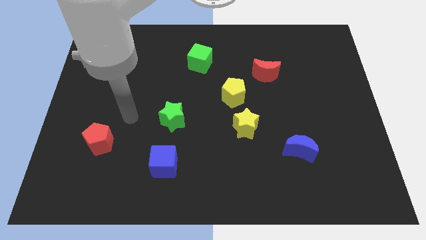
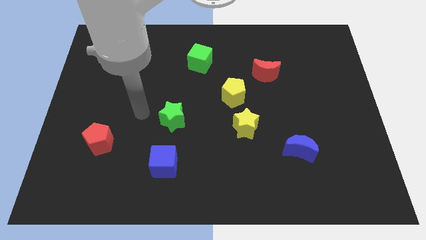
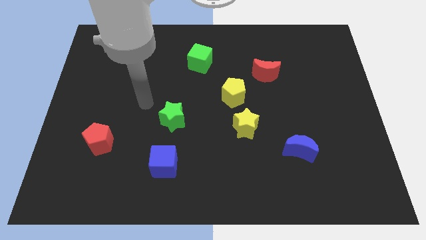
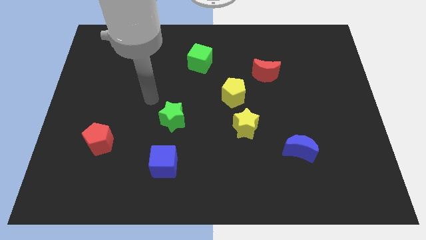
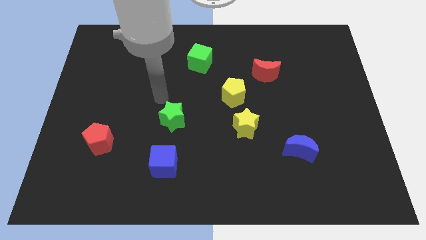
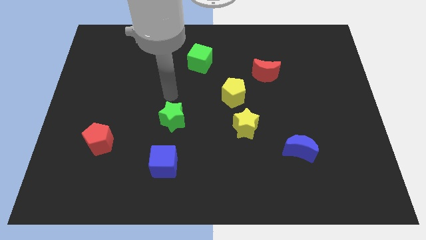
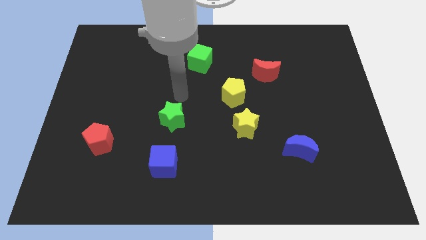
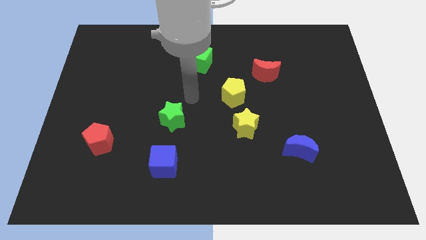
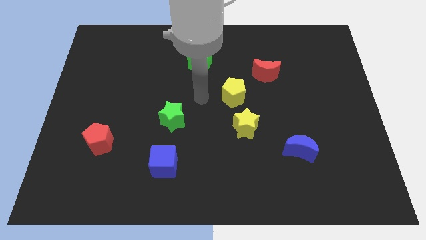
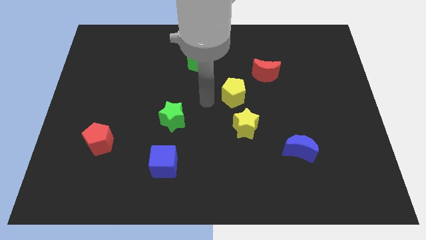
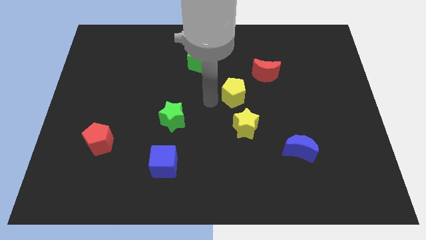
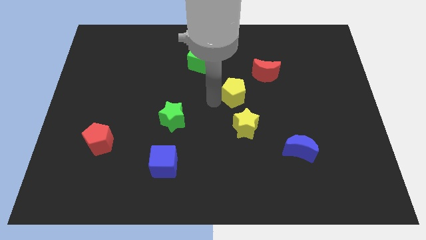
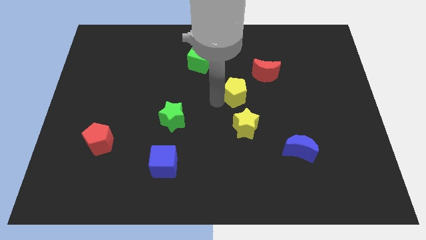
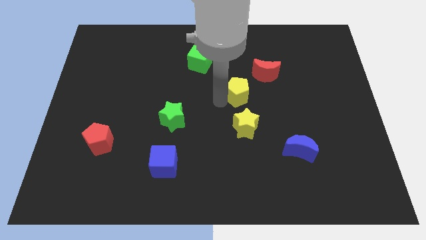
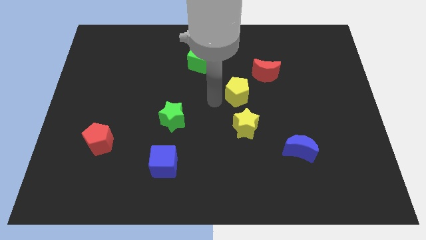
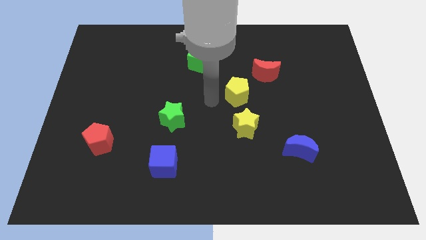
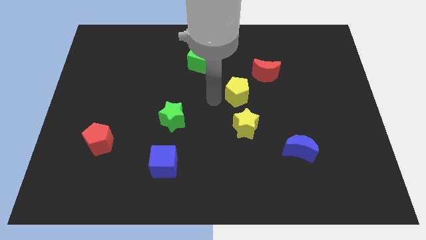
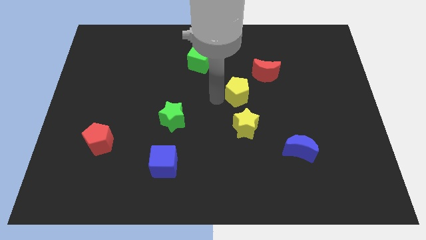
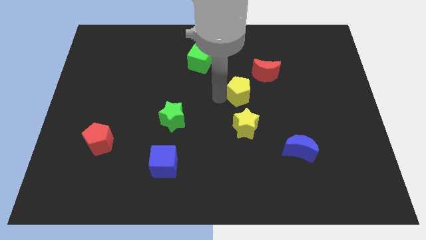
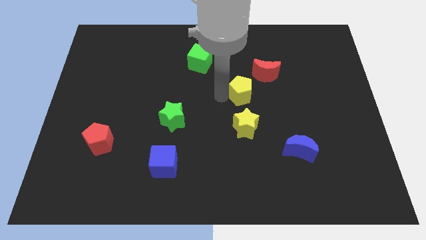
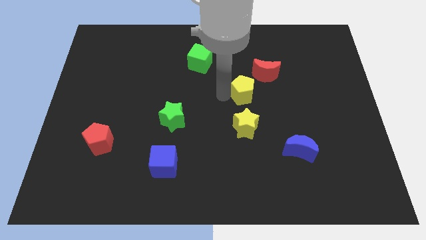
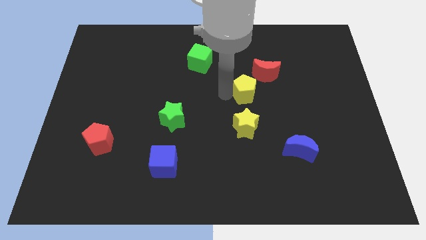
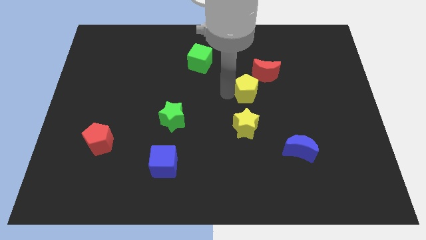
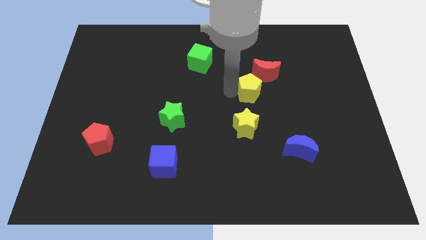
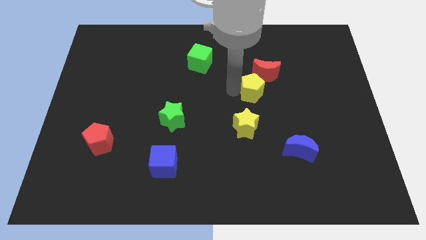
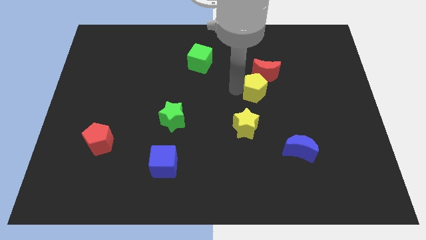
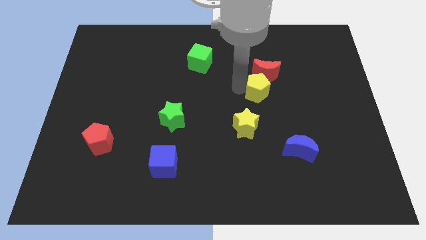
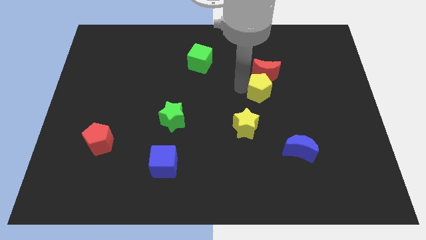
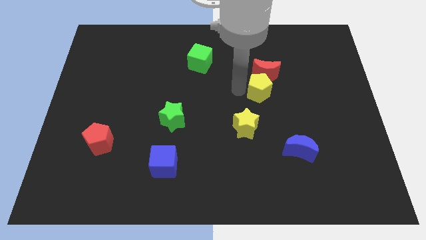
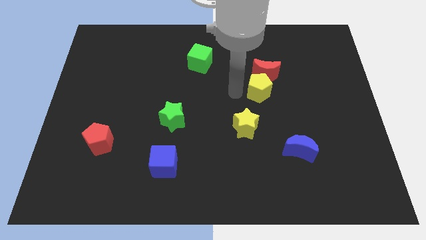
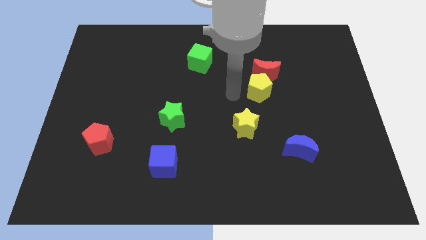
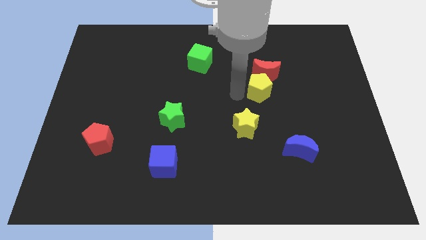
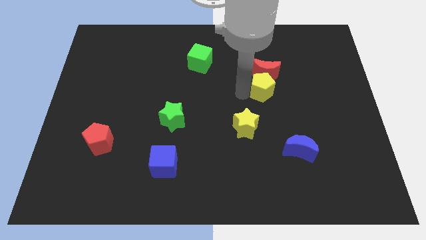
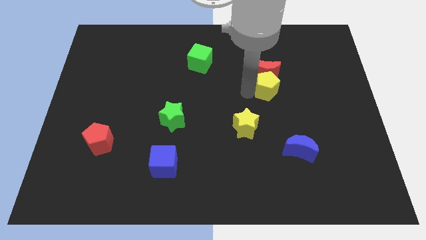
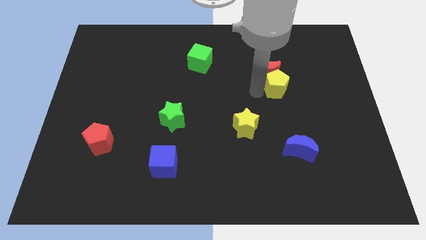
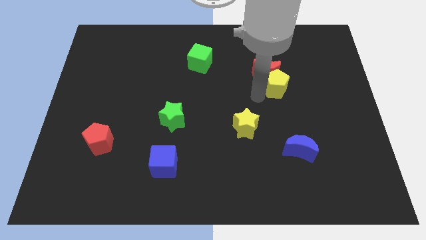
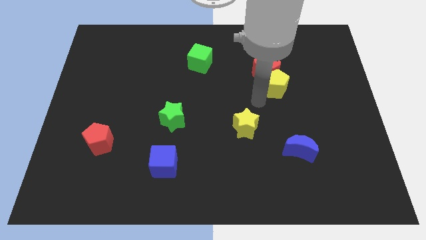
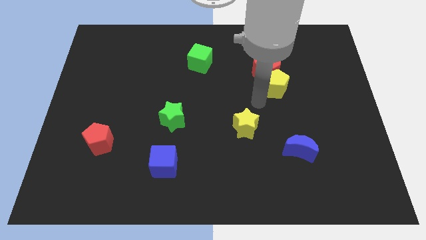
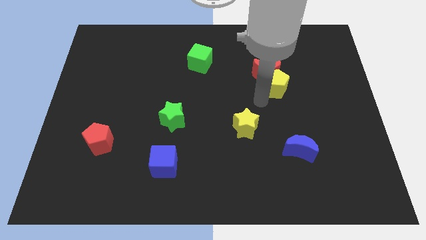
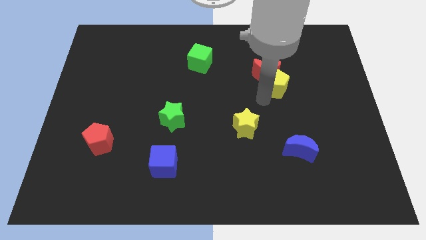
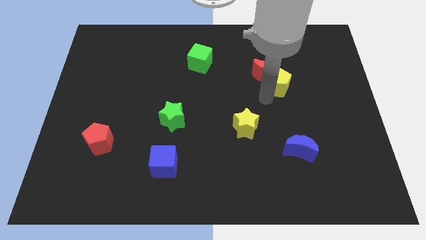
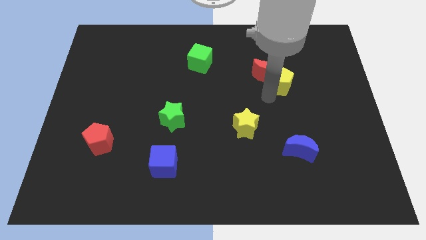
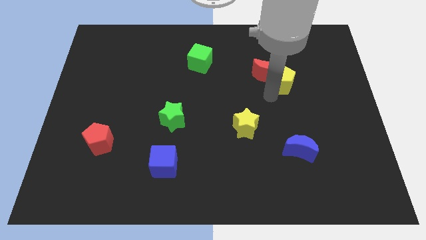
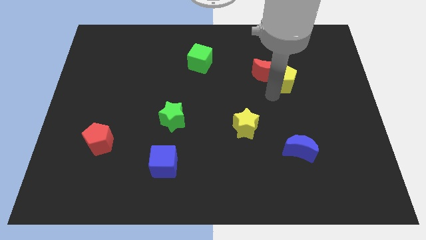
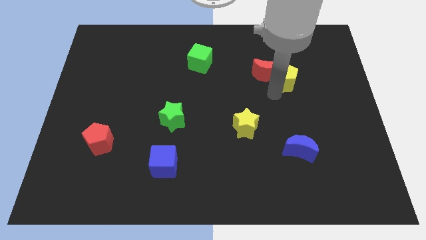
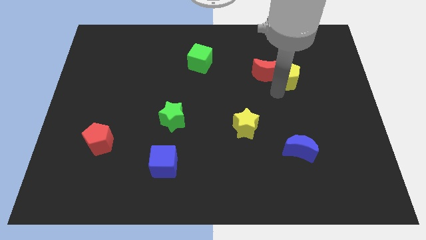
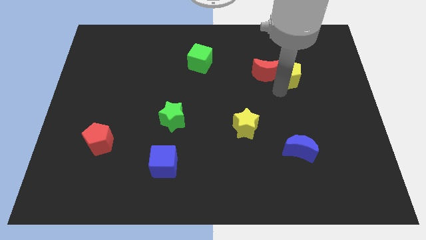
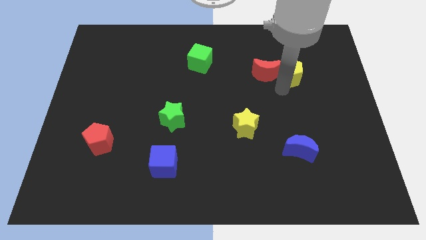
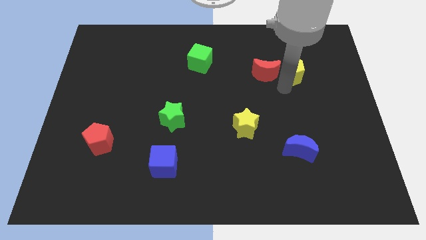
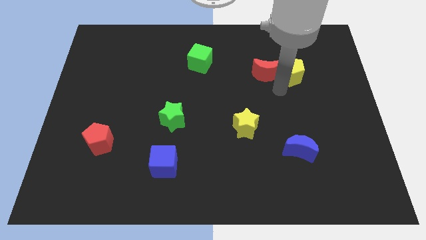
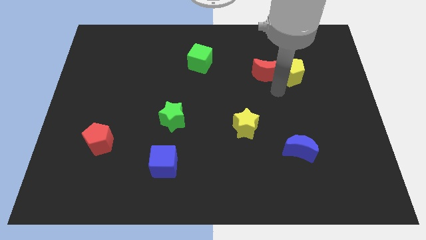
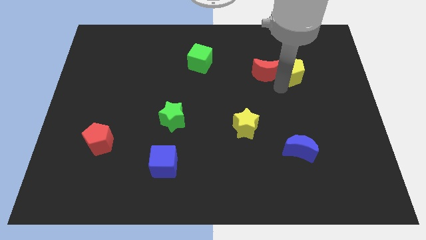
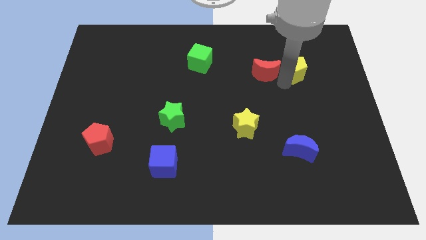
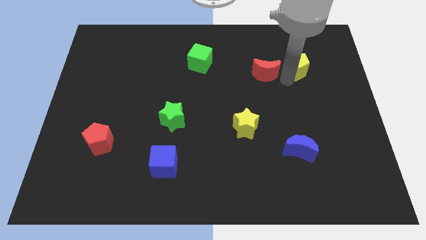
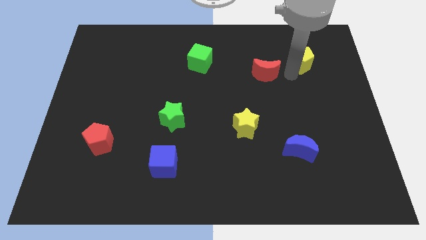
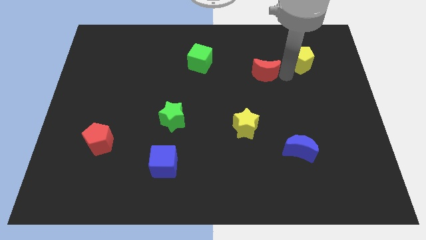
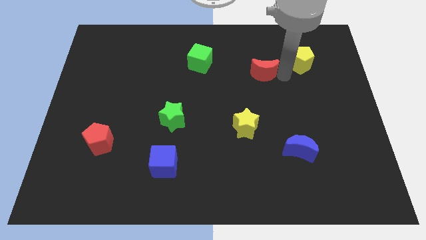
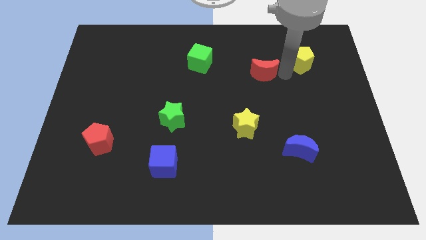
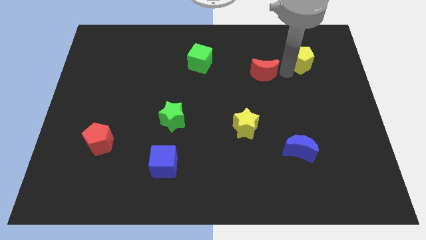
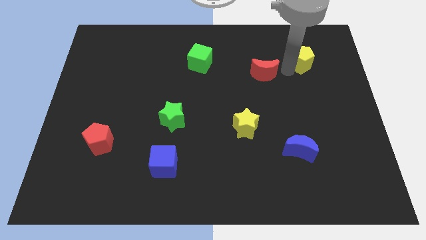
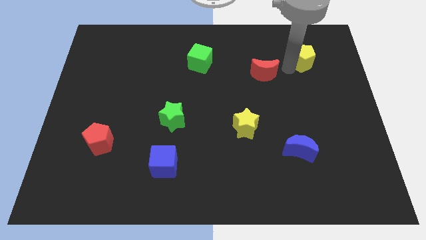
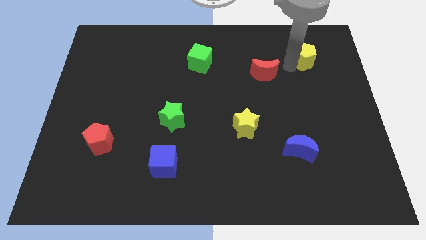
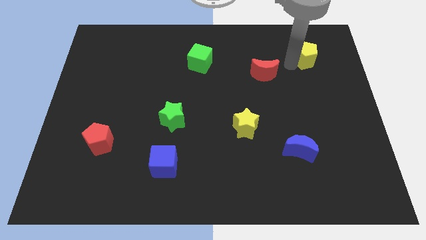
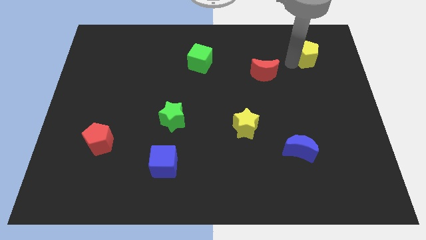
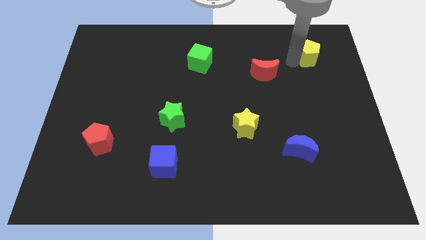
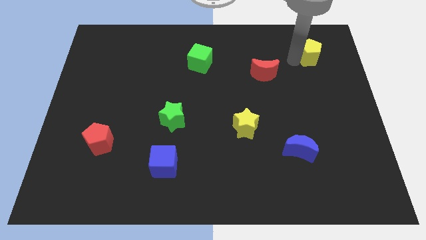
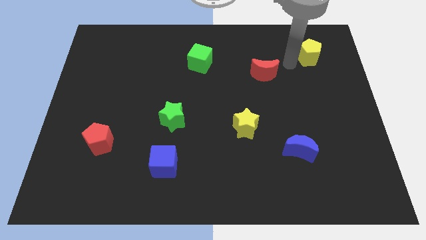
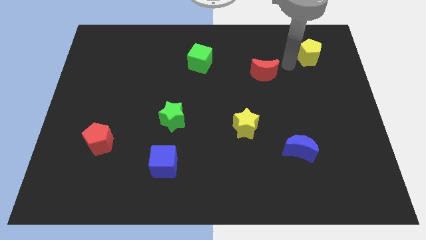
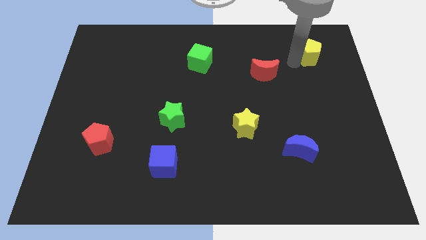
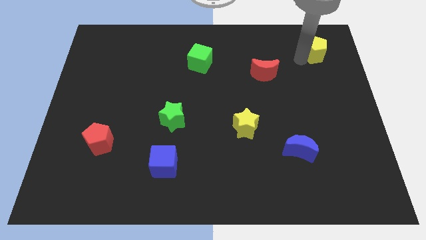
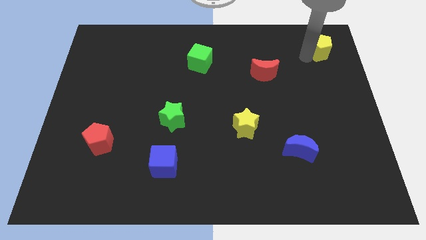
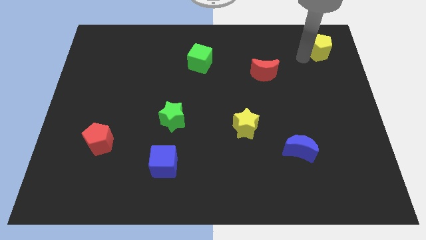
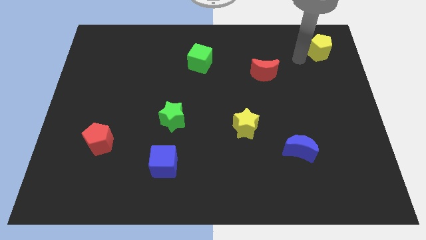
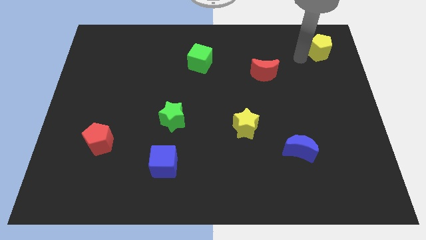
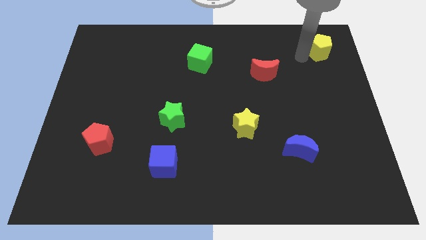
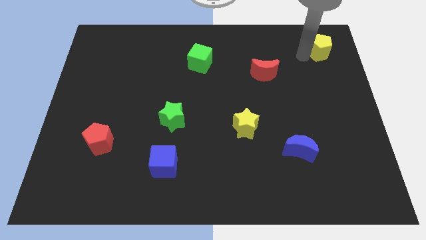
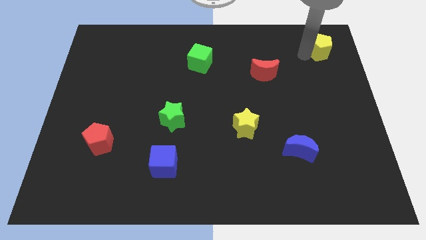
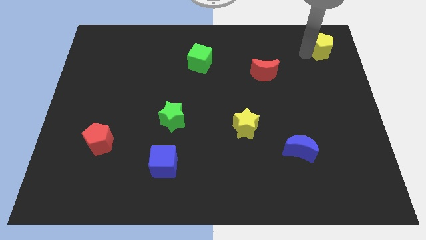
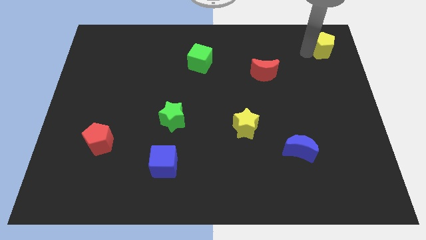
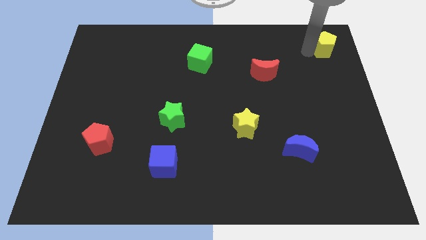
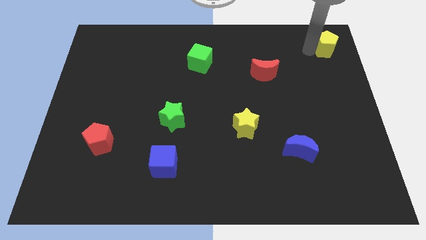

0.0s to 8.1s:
push the yellow pentagon to the upper right corner
